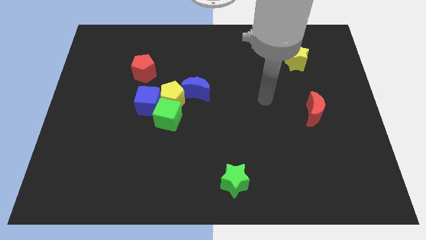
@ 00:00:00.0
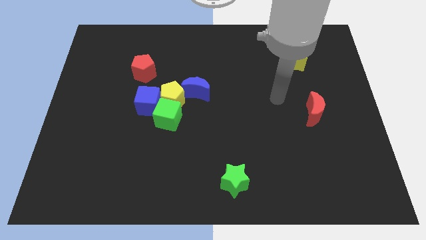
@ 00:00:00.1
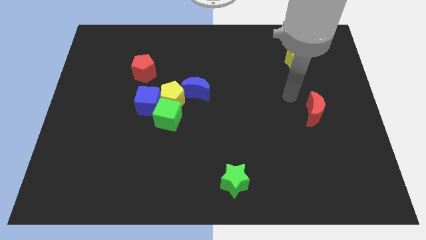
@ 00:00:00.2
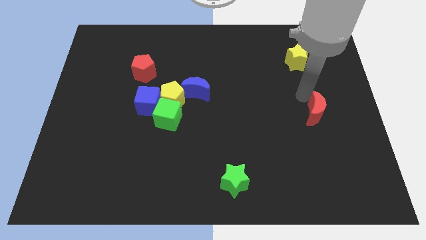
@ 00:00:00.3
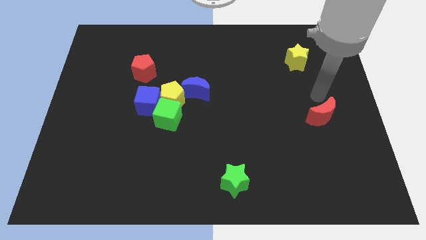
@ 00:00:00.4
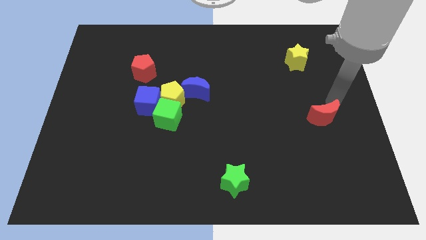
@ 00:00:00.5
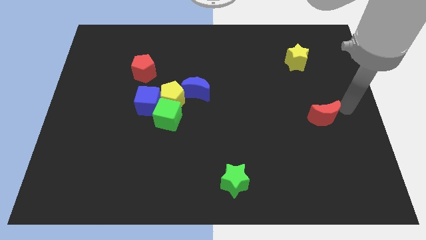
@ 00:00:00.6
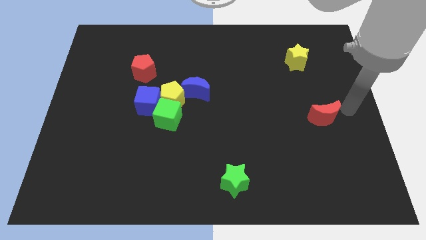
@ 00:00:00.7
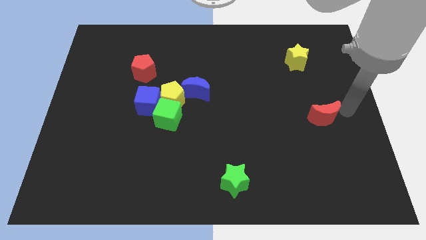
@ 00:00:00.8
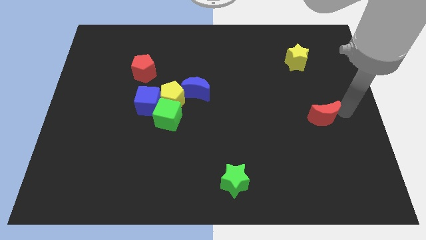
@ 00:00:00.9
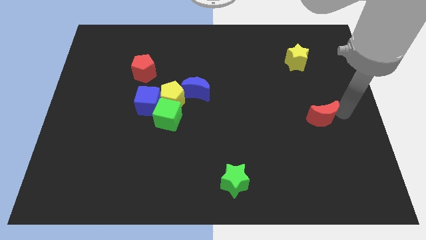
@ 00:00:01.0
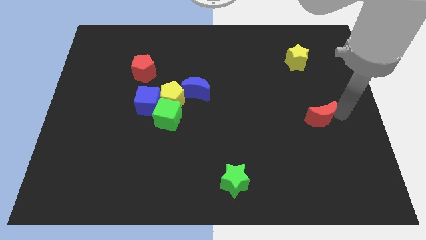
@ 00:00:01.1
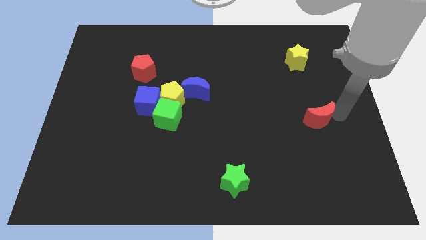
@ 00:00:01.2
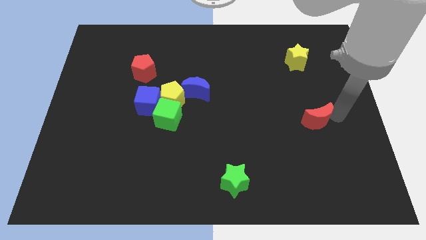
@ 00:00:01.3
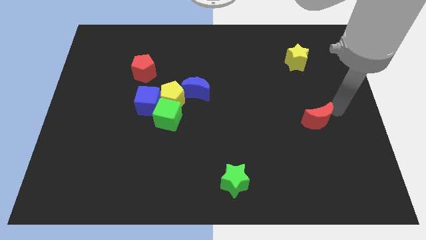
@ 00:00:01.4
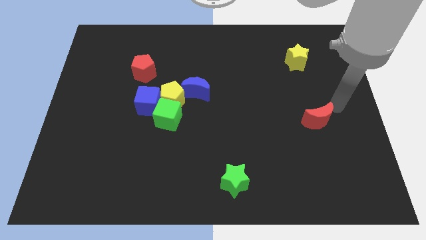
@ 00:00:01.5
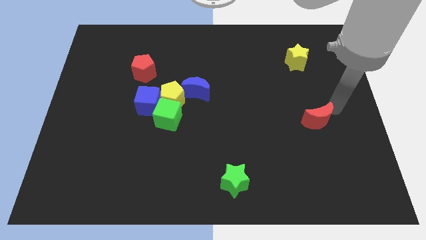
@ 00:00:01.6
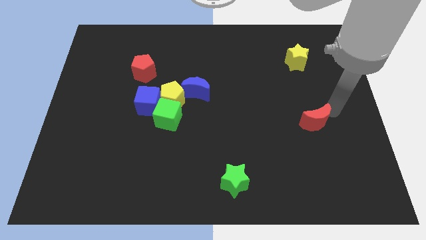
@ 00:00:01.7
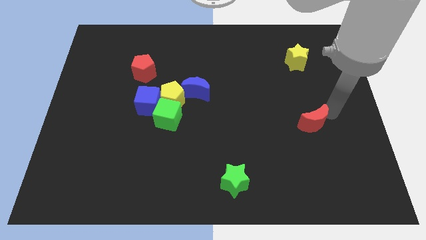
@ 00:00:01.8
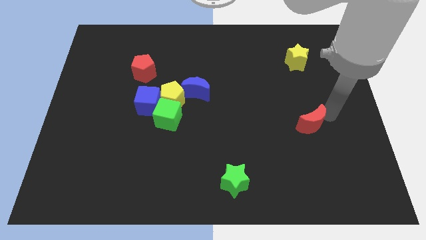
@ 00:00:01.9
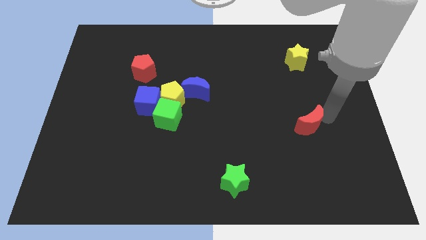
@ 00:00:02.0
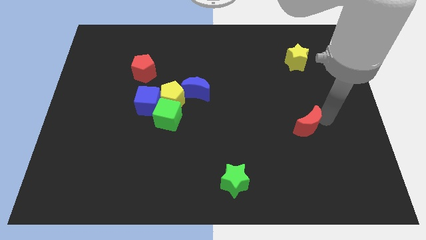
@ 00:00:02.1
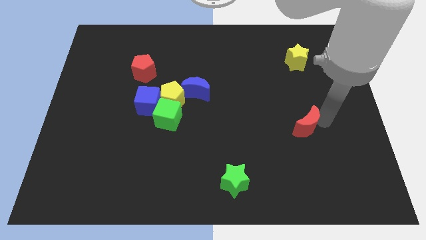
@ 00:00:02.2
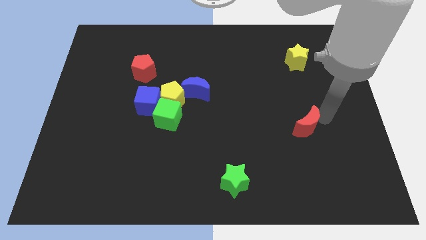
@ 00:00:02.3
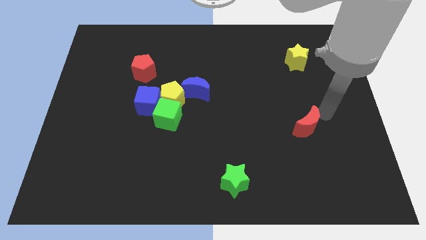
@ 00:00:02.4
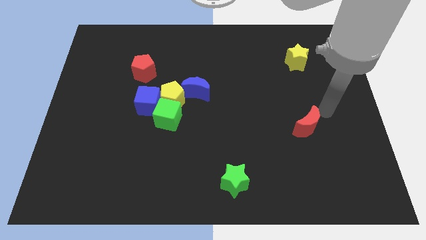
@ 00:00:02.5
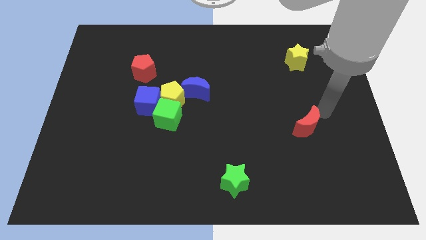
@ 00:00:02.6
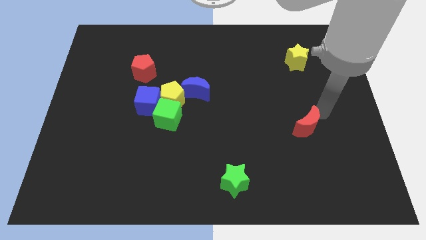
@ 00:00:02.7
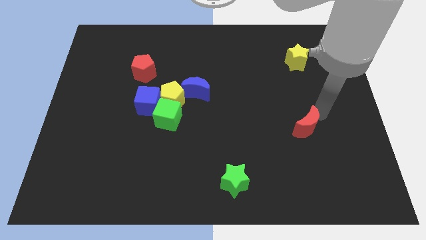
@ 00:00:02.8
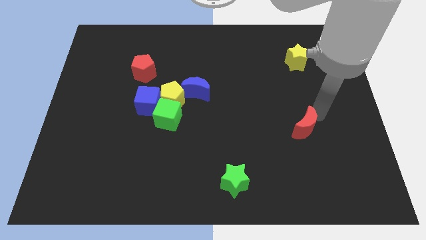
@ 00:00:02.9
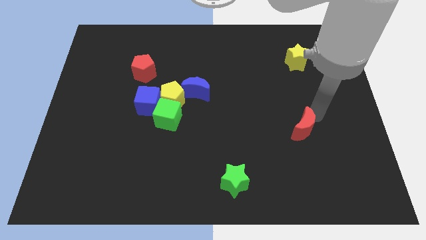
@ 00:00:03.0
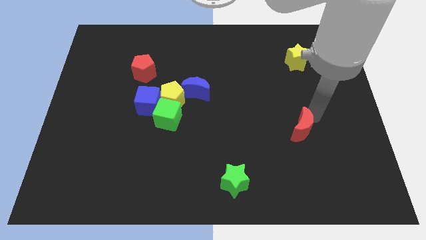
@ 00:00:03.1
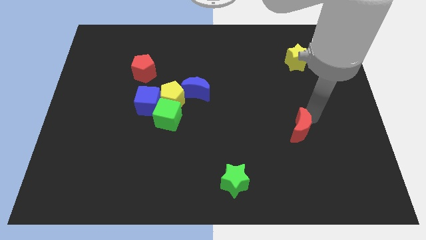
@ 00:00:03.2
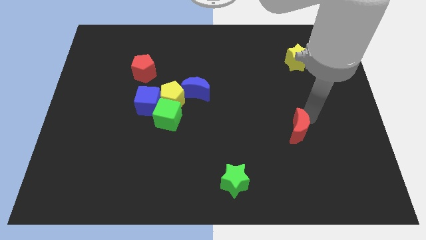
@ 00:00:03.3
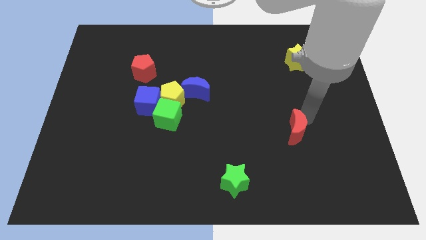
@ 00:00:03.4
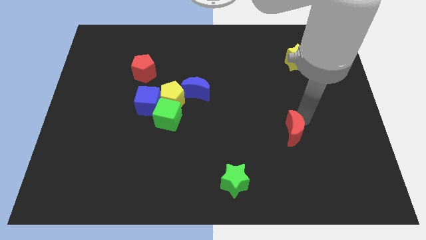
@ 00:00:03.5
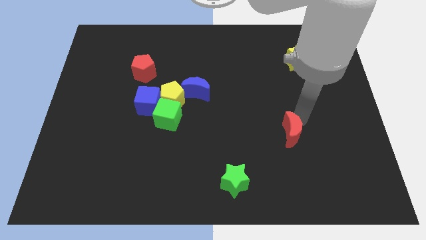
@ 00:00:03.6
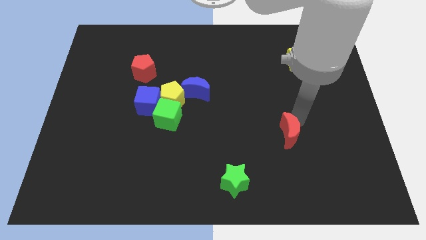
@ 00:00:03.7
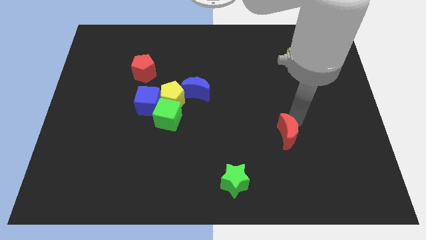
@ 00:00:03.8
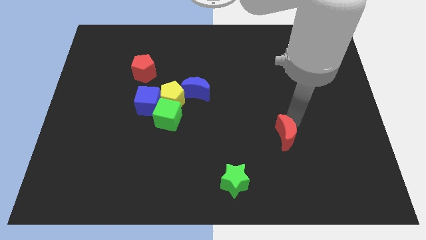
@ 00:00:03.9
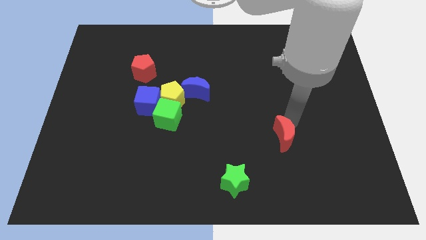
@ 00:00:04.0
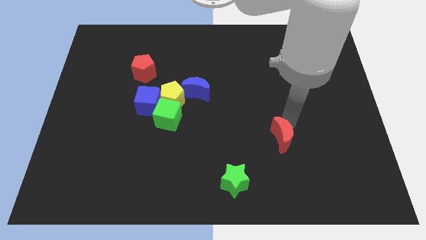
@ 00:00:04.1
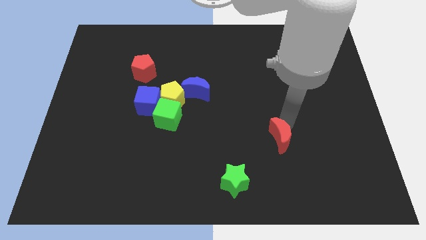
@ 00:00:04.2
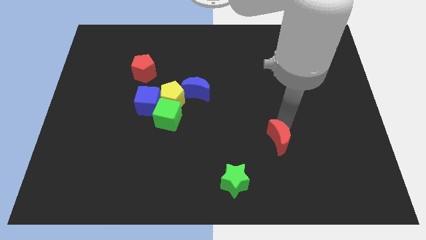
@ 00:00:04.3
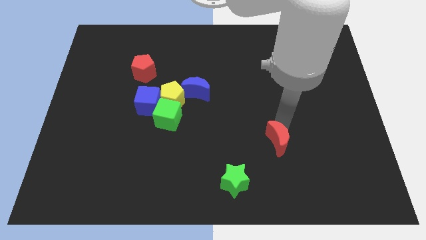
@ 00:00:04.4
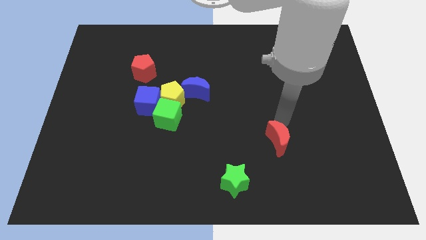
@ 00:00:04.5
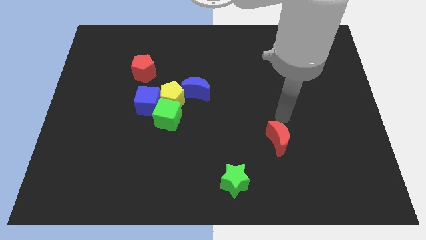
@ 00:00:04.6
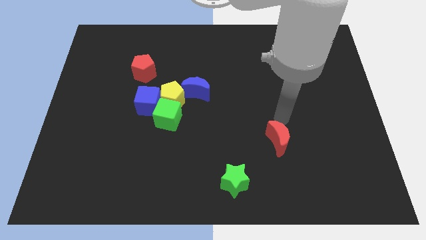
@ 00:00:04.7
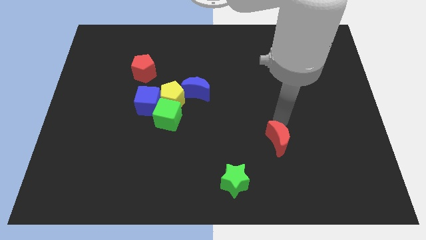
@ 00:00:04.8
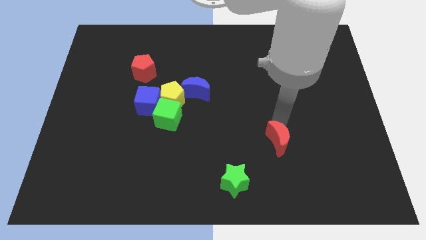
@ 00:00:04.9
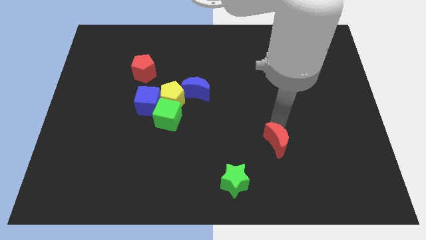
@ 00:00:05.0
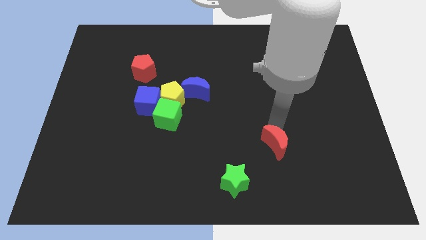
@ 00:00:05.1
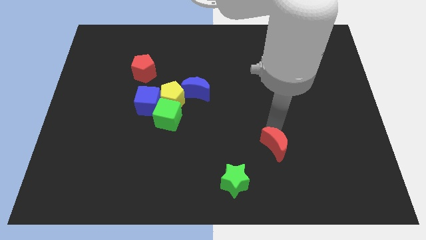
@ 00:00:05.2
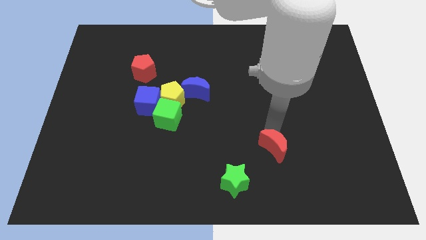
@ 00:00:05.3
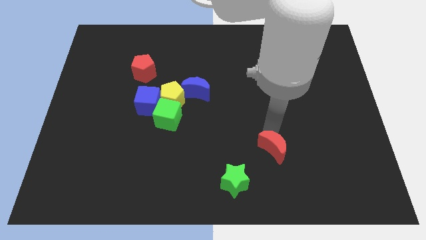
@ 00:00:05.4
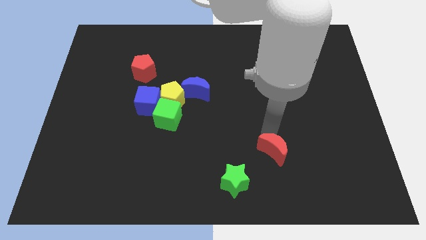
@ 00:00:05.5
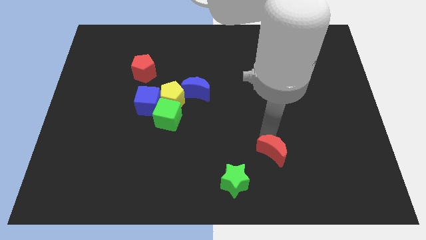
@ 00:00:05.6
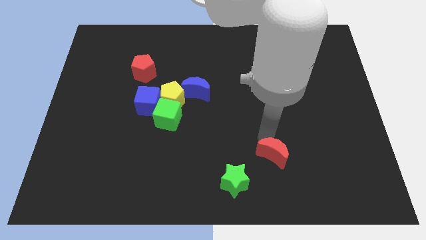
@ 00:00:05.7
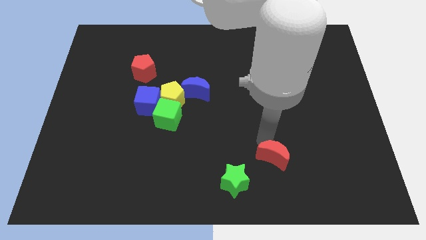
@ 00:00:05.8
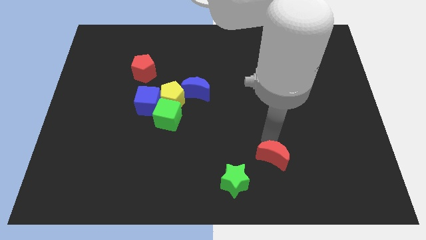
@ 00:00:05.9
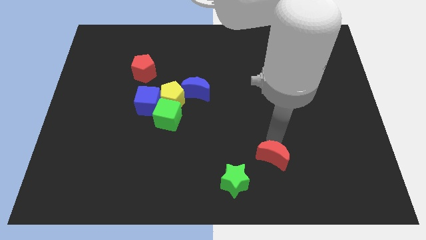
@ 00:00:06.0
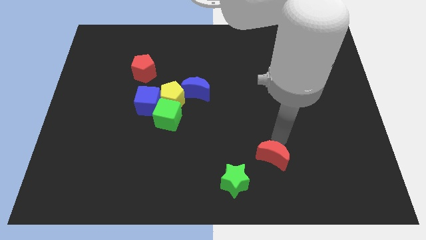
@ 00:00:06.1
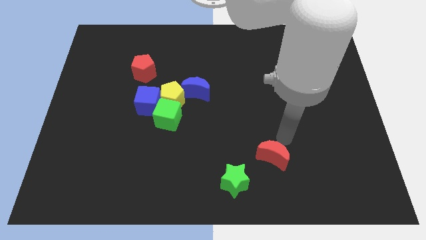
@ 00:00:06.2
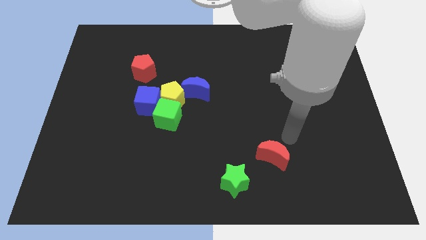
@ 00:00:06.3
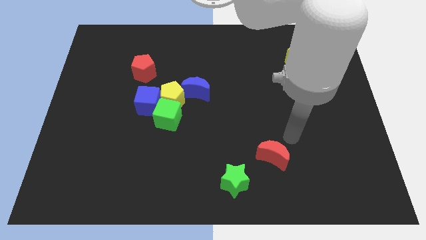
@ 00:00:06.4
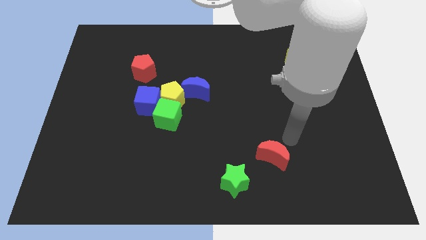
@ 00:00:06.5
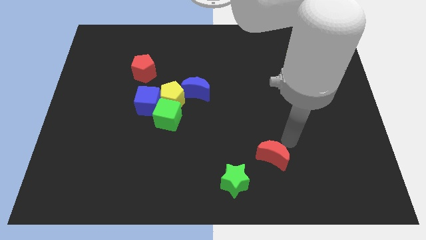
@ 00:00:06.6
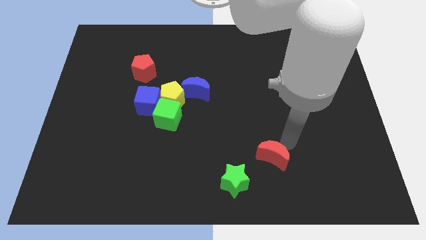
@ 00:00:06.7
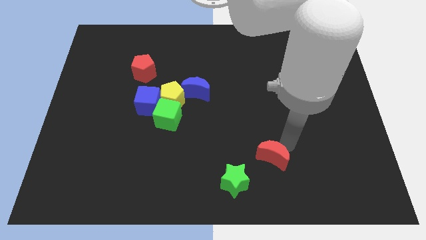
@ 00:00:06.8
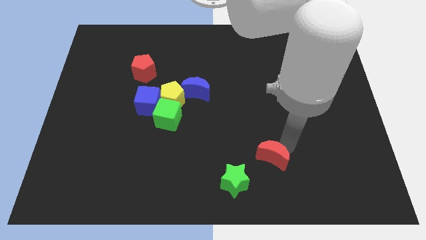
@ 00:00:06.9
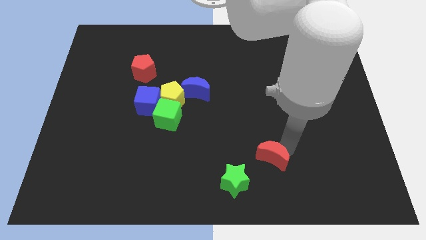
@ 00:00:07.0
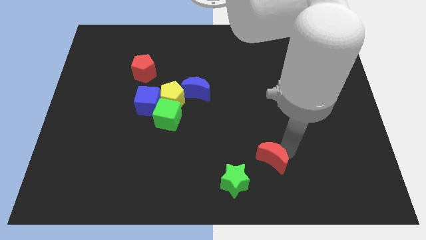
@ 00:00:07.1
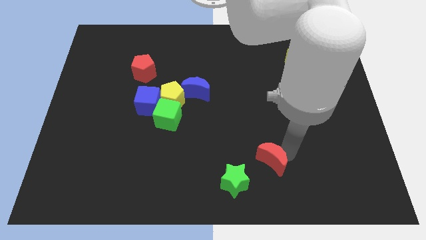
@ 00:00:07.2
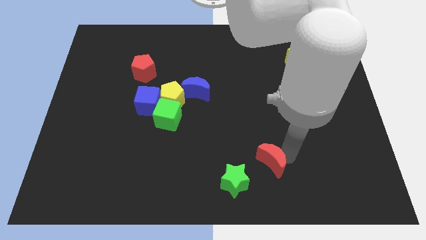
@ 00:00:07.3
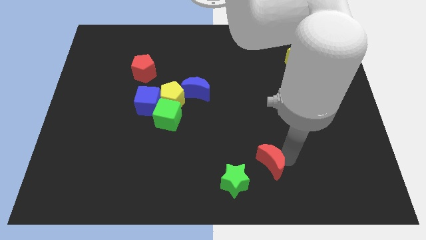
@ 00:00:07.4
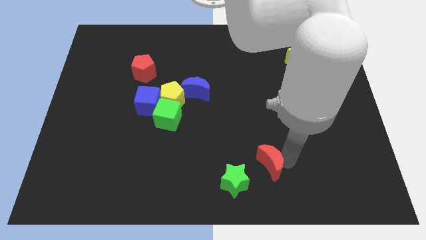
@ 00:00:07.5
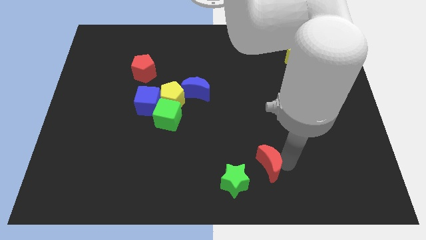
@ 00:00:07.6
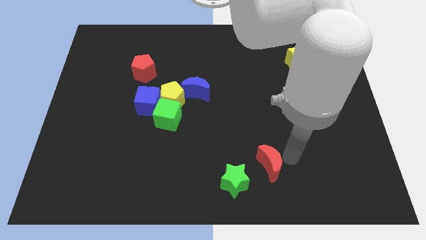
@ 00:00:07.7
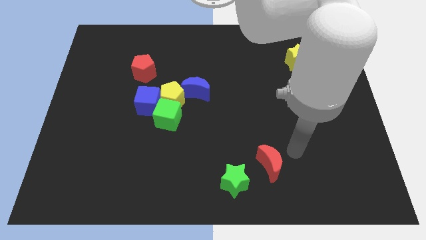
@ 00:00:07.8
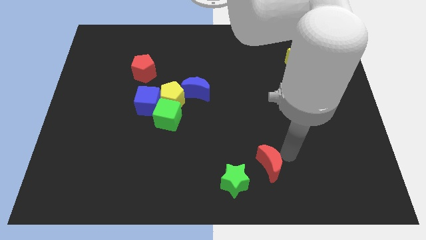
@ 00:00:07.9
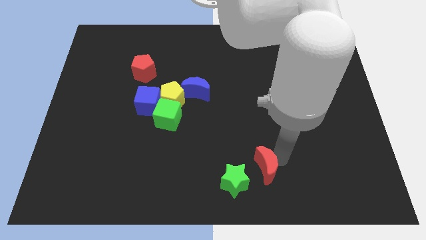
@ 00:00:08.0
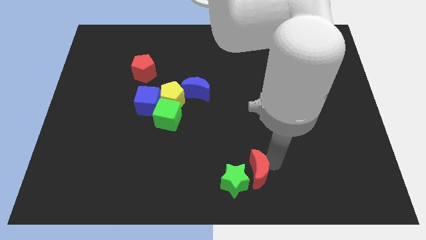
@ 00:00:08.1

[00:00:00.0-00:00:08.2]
put the red moon close to the green star
